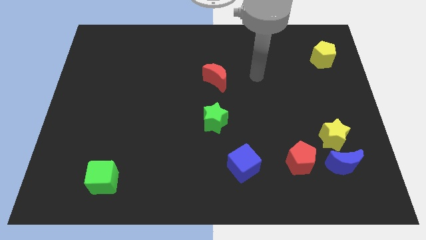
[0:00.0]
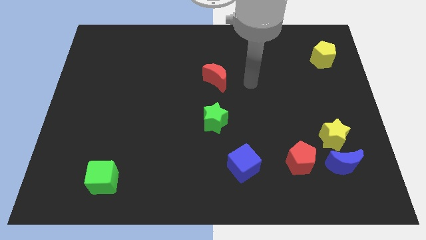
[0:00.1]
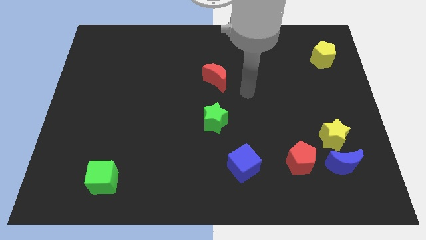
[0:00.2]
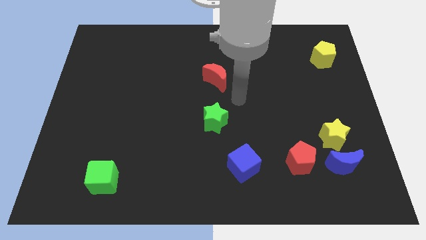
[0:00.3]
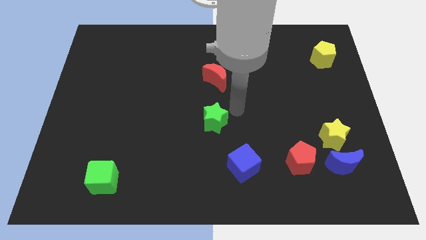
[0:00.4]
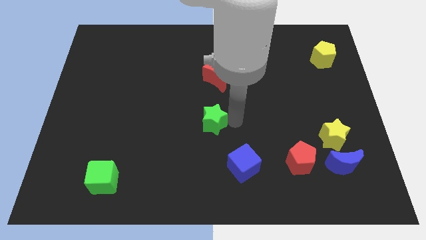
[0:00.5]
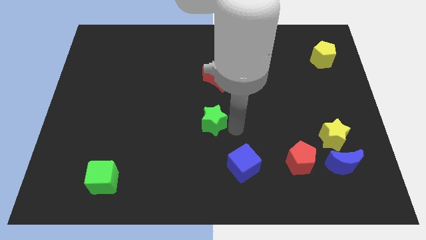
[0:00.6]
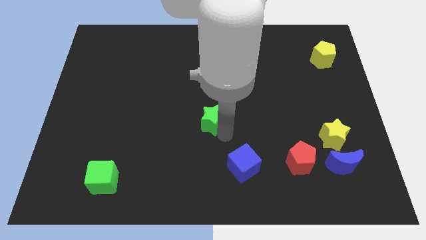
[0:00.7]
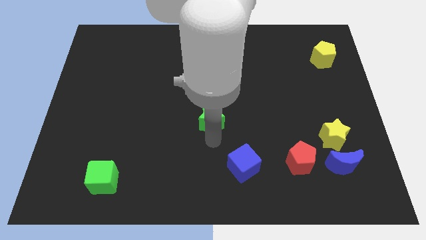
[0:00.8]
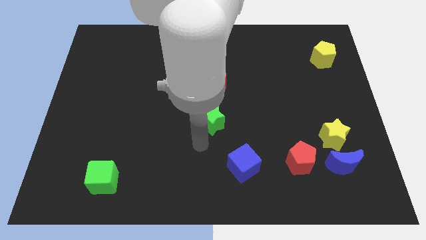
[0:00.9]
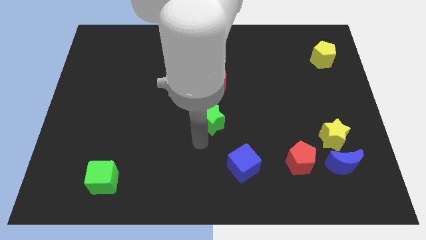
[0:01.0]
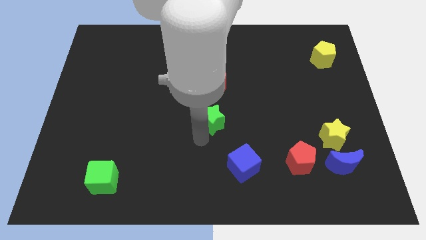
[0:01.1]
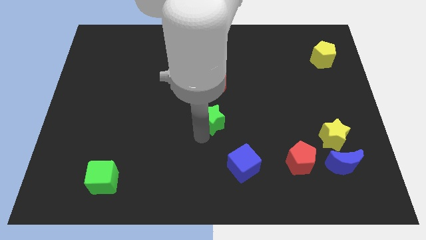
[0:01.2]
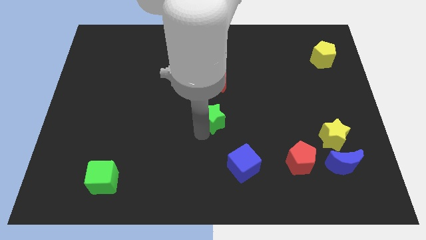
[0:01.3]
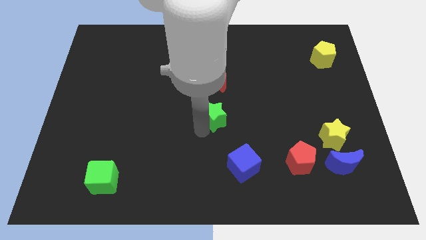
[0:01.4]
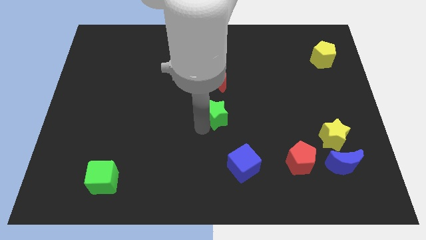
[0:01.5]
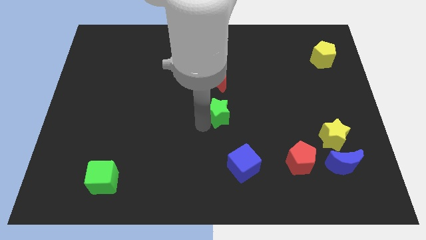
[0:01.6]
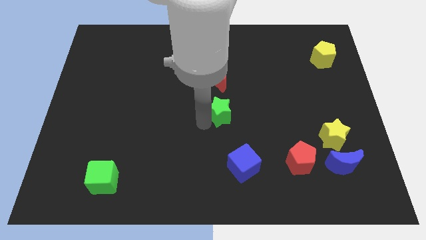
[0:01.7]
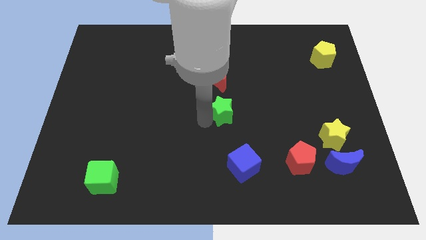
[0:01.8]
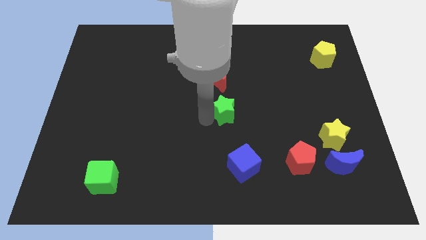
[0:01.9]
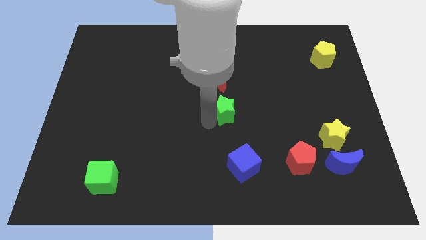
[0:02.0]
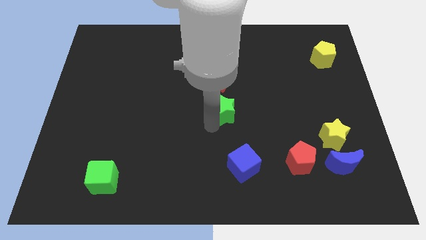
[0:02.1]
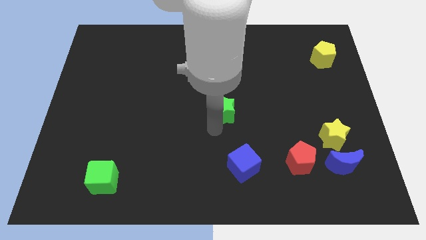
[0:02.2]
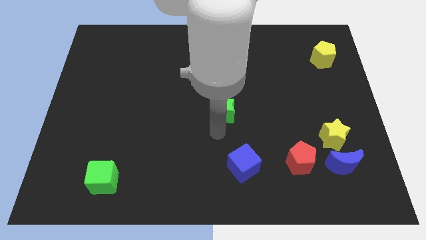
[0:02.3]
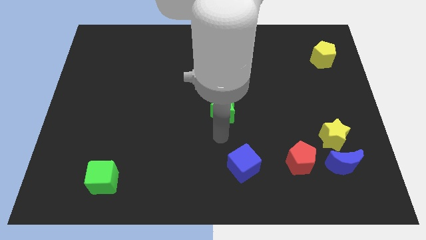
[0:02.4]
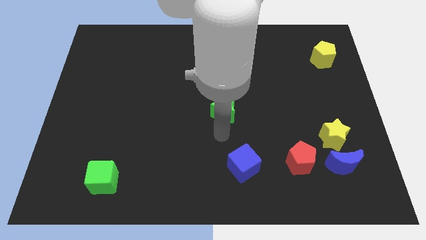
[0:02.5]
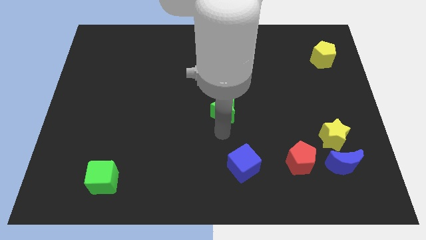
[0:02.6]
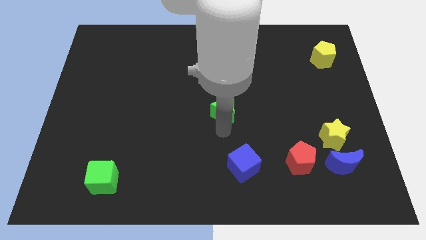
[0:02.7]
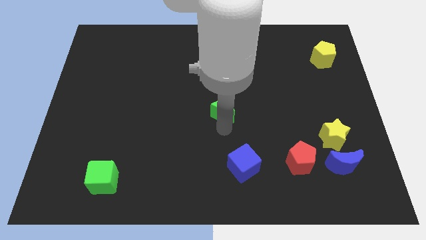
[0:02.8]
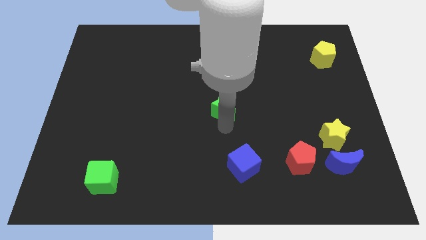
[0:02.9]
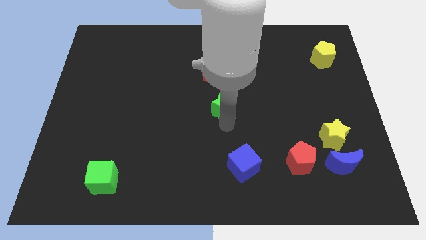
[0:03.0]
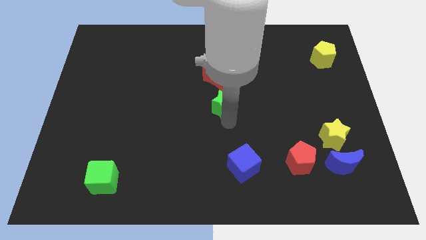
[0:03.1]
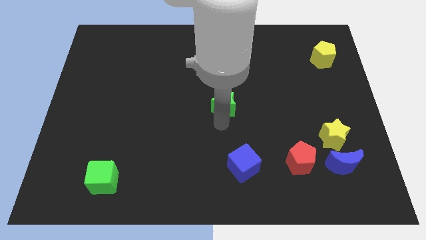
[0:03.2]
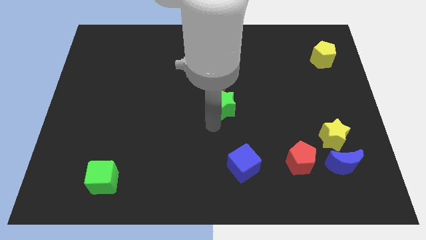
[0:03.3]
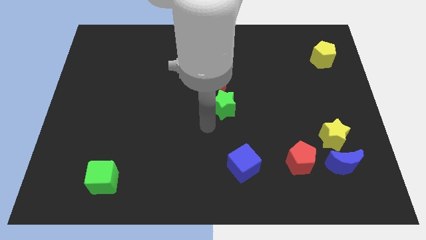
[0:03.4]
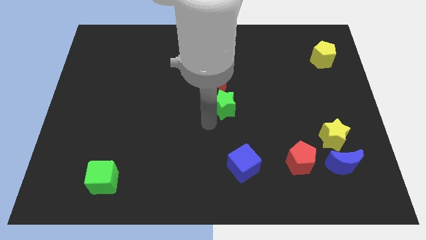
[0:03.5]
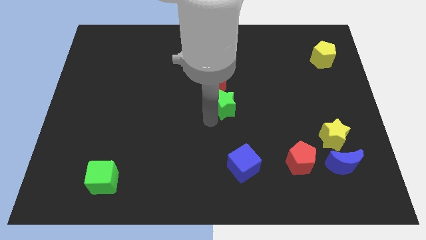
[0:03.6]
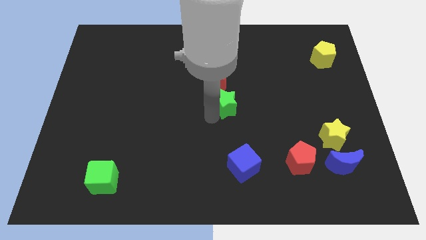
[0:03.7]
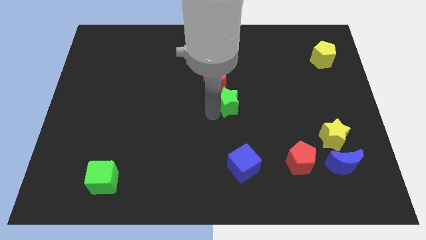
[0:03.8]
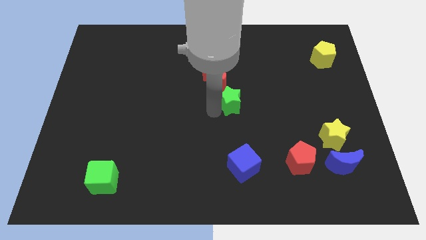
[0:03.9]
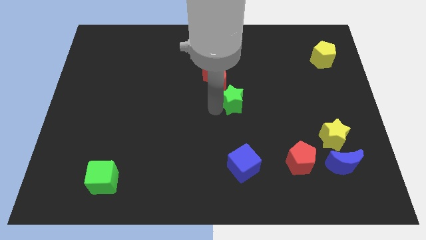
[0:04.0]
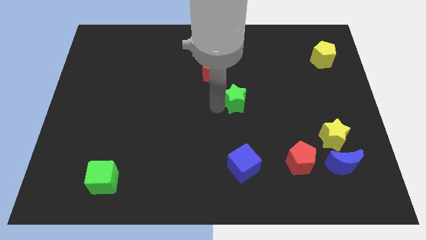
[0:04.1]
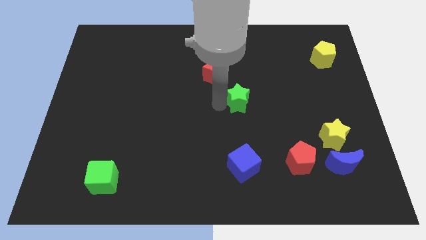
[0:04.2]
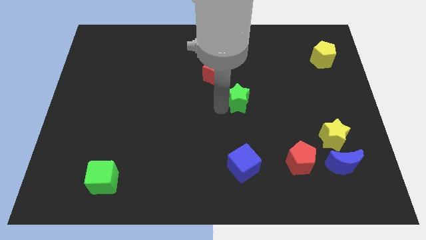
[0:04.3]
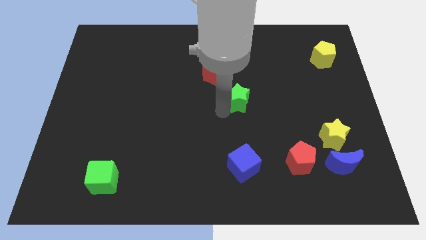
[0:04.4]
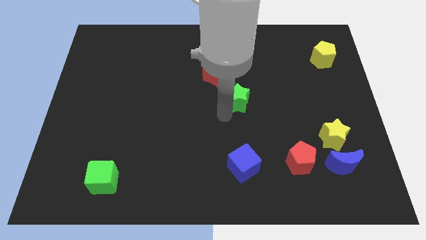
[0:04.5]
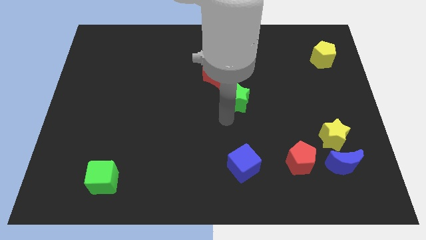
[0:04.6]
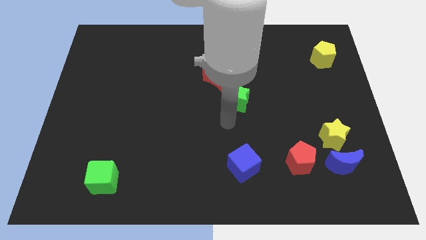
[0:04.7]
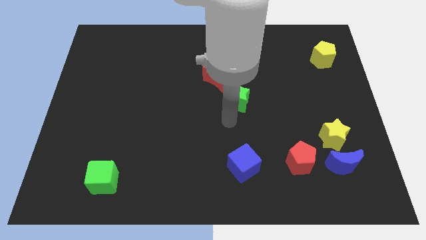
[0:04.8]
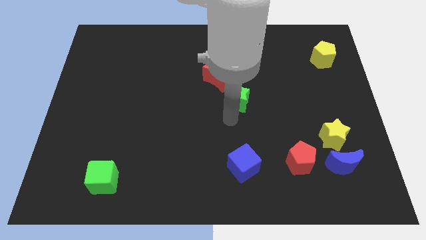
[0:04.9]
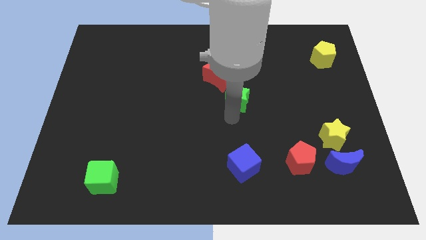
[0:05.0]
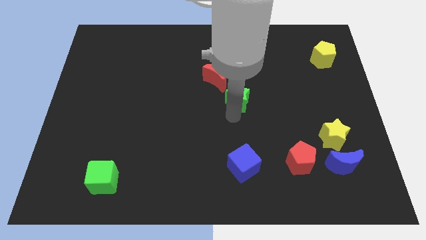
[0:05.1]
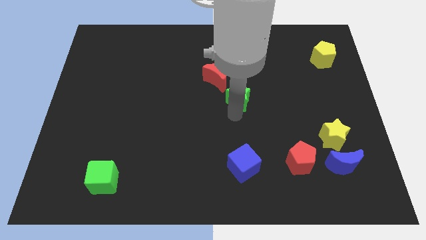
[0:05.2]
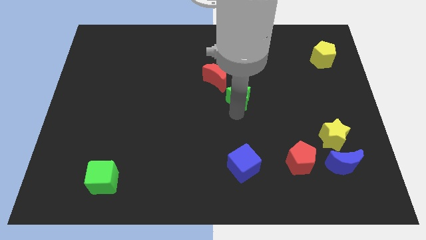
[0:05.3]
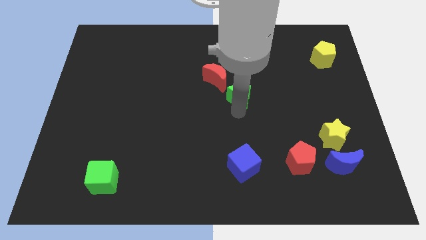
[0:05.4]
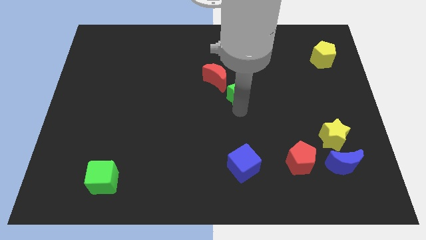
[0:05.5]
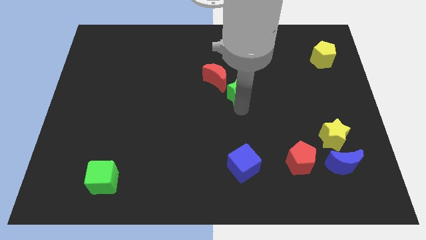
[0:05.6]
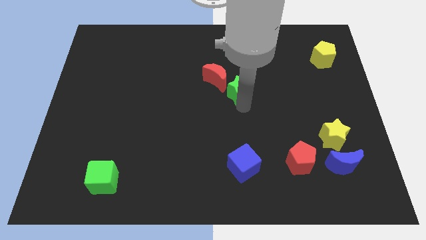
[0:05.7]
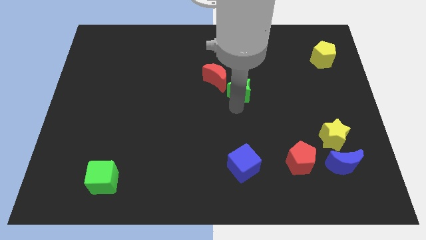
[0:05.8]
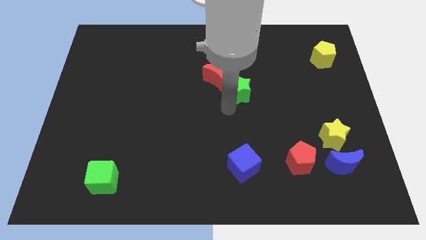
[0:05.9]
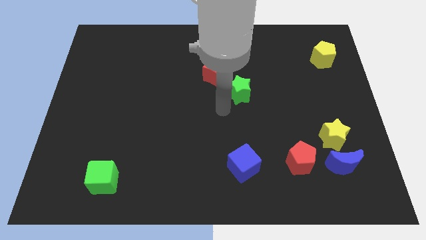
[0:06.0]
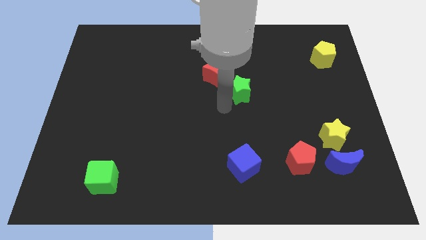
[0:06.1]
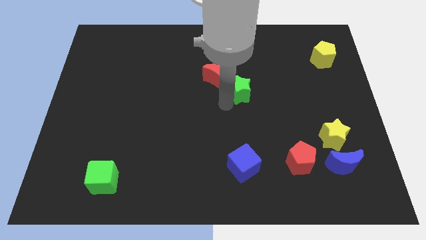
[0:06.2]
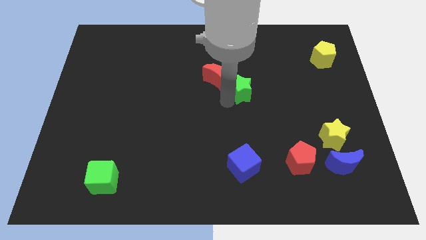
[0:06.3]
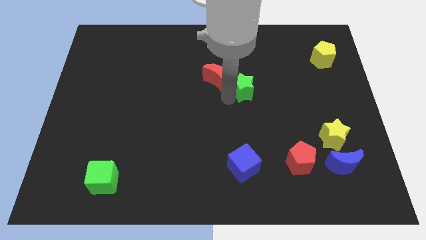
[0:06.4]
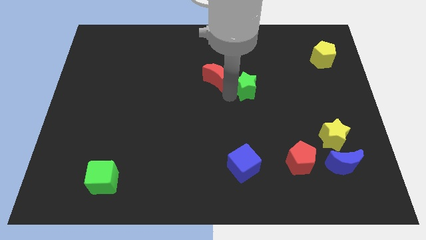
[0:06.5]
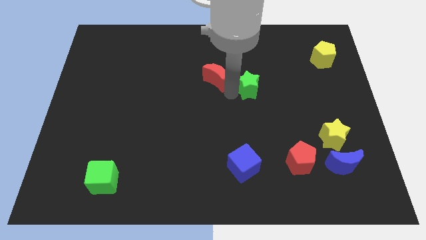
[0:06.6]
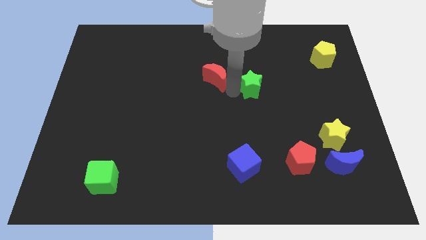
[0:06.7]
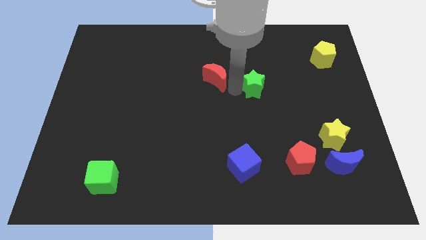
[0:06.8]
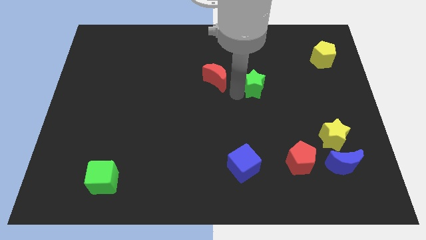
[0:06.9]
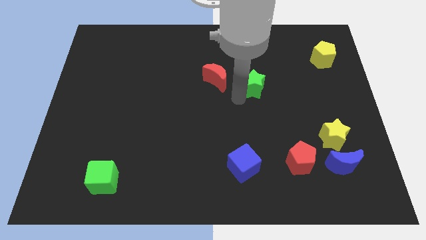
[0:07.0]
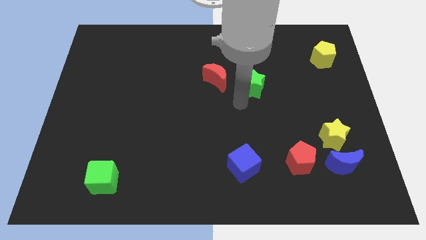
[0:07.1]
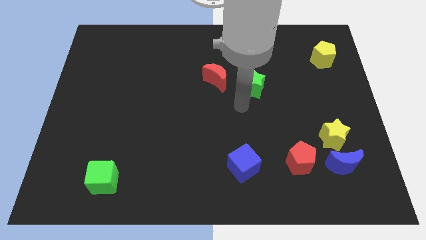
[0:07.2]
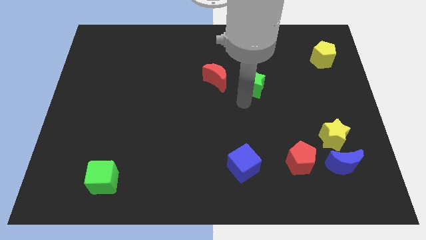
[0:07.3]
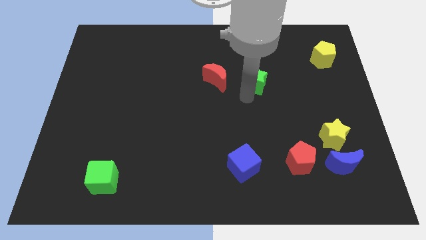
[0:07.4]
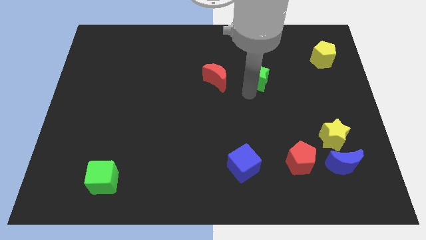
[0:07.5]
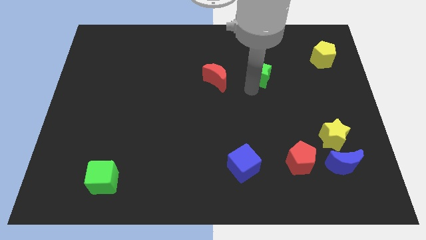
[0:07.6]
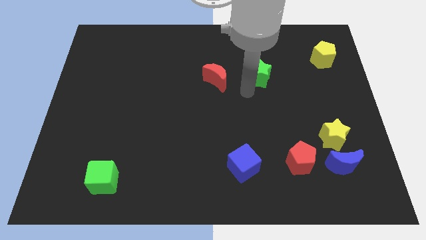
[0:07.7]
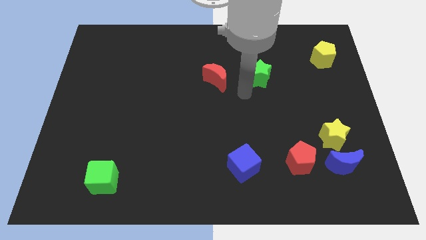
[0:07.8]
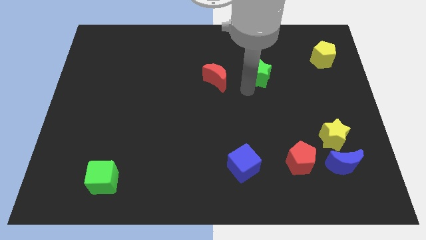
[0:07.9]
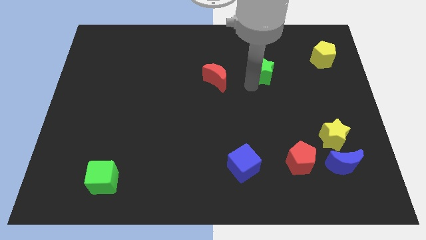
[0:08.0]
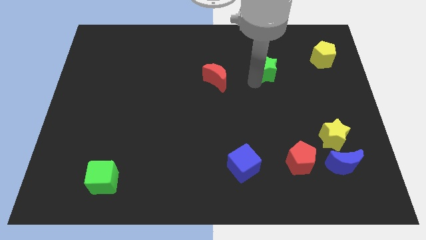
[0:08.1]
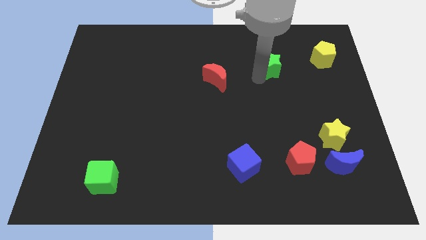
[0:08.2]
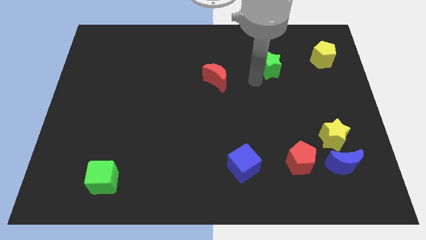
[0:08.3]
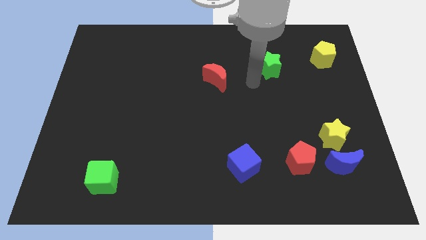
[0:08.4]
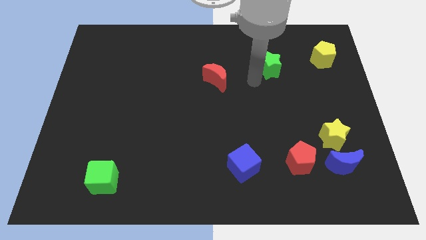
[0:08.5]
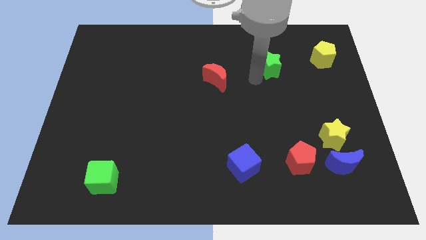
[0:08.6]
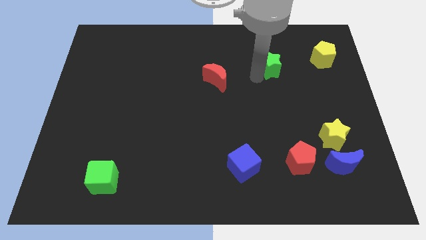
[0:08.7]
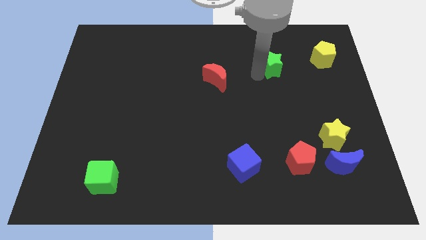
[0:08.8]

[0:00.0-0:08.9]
move the green star left of the yellow pentagon
